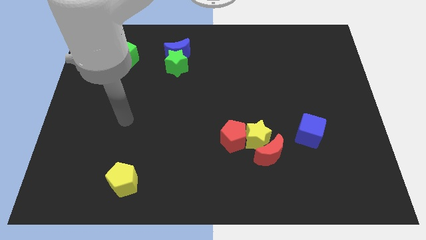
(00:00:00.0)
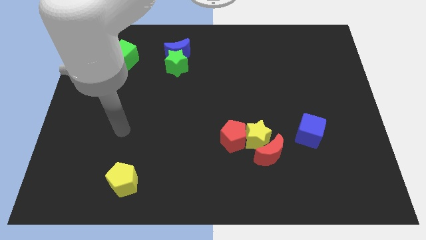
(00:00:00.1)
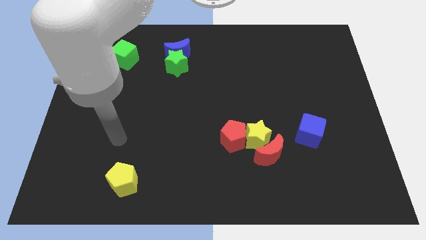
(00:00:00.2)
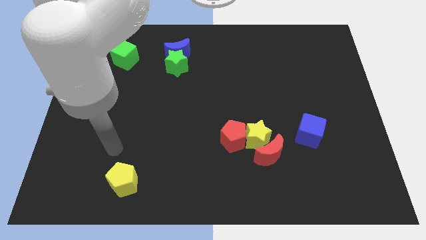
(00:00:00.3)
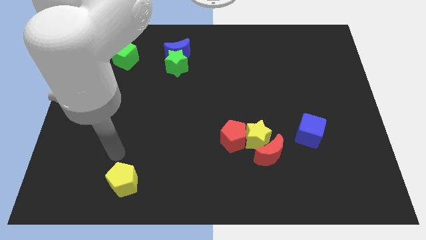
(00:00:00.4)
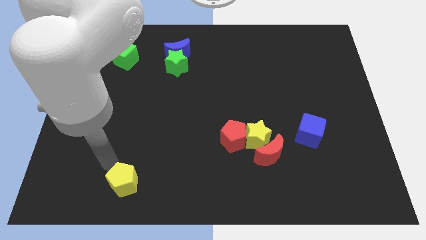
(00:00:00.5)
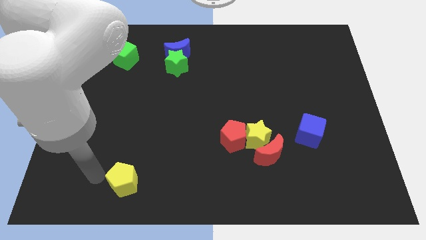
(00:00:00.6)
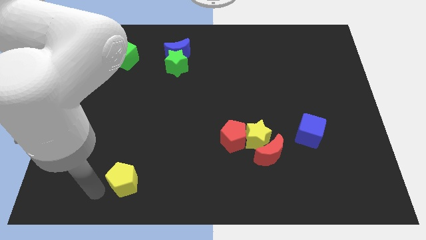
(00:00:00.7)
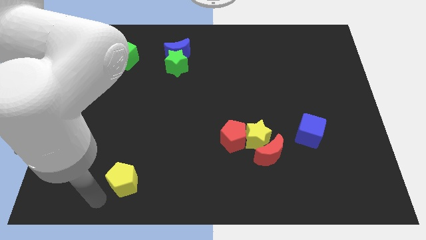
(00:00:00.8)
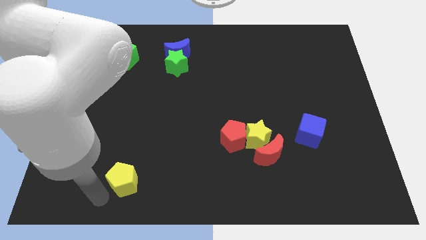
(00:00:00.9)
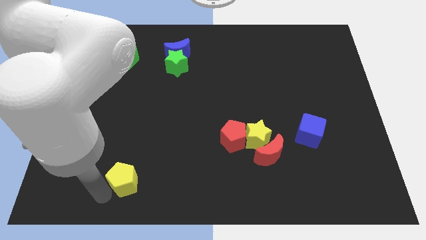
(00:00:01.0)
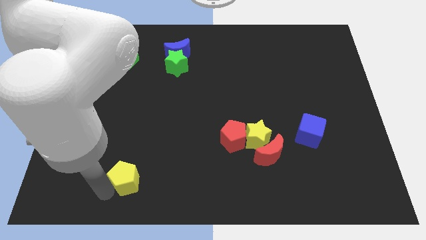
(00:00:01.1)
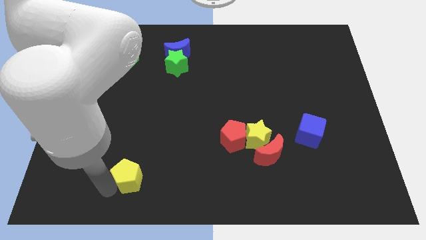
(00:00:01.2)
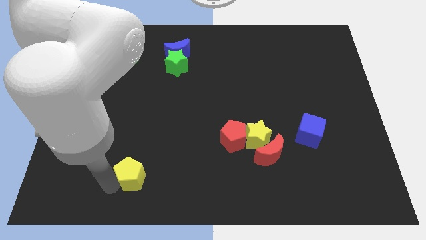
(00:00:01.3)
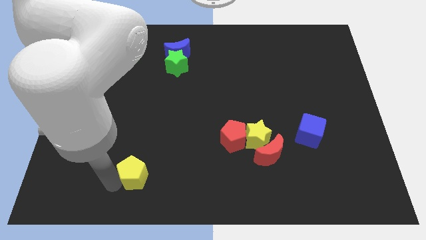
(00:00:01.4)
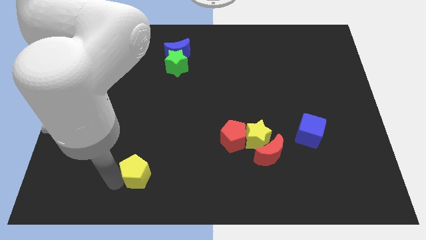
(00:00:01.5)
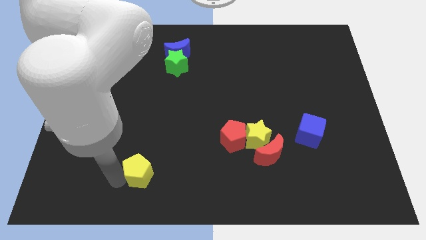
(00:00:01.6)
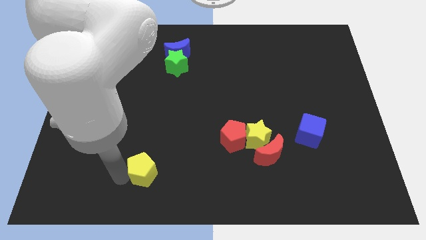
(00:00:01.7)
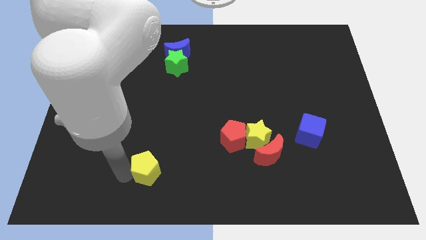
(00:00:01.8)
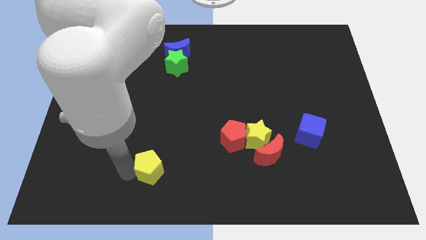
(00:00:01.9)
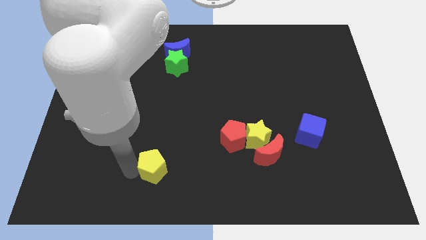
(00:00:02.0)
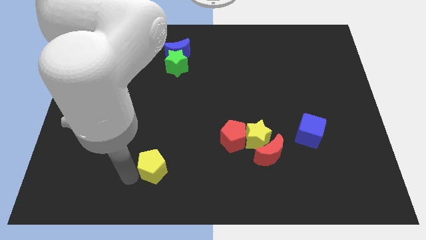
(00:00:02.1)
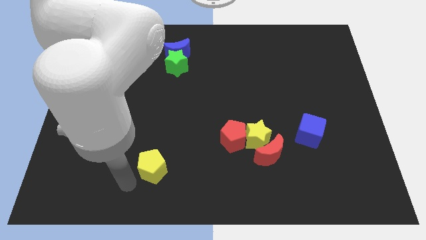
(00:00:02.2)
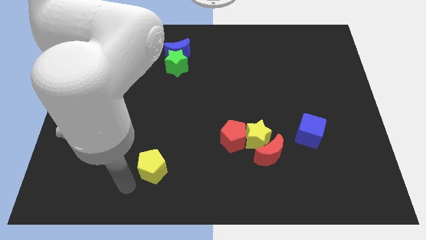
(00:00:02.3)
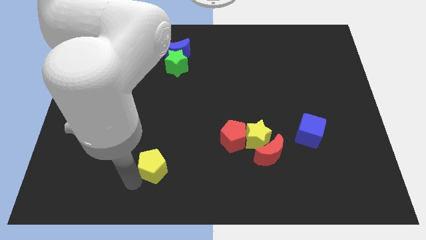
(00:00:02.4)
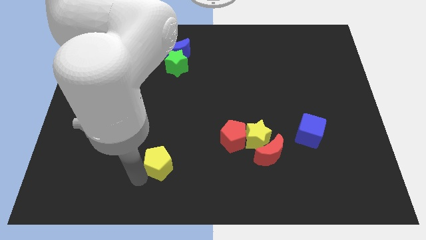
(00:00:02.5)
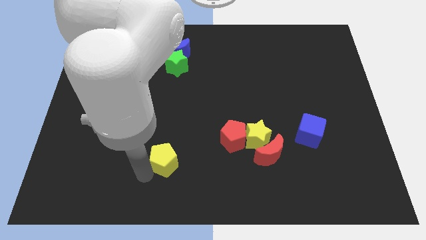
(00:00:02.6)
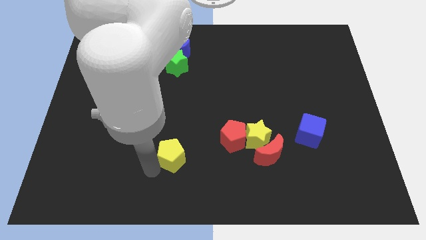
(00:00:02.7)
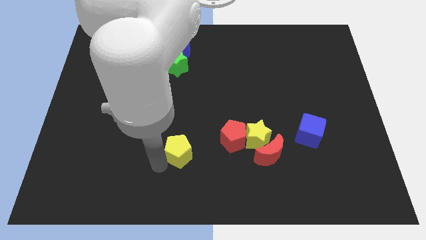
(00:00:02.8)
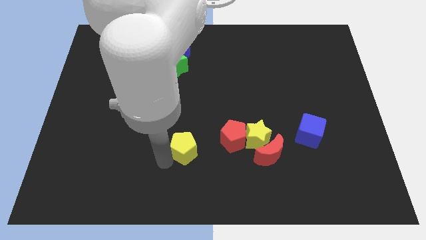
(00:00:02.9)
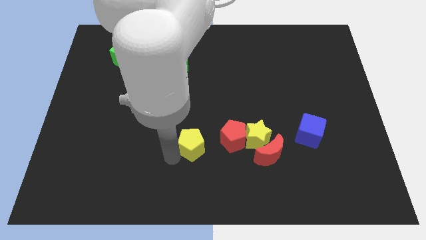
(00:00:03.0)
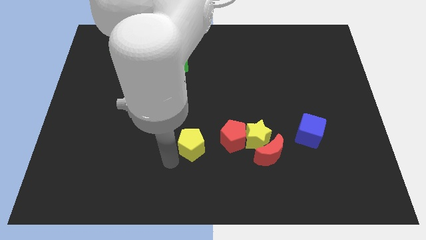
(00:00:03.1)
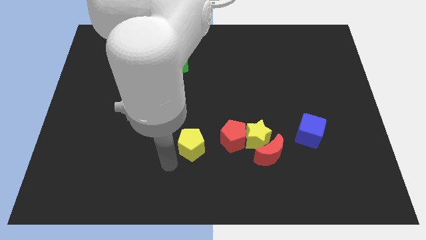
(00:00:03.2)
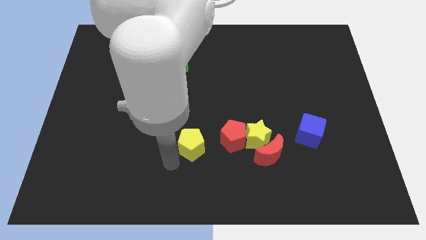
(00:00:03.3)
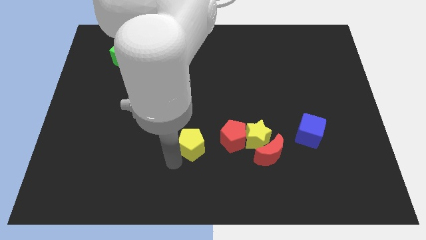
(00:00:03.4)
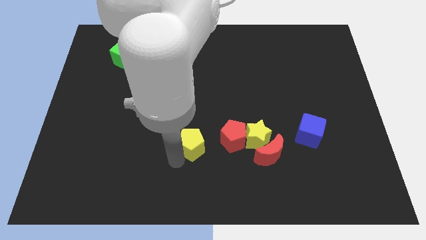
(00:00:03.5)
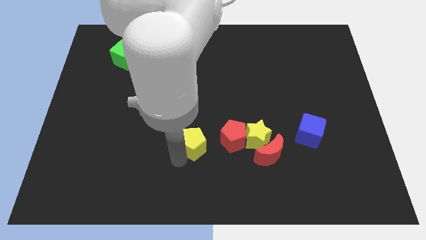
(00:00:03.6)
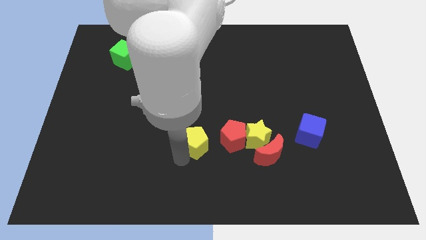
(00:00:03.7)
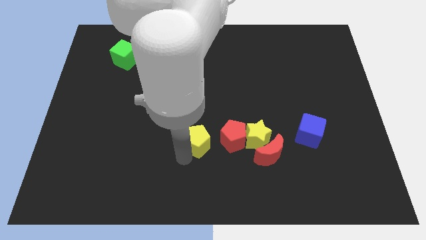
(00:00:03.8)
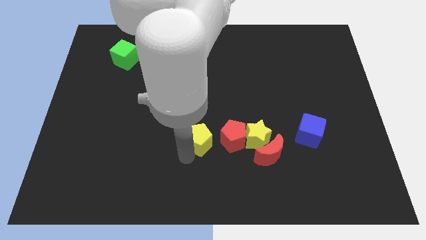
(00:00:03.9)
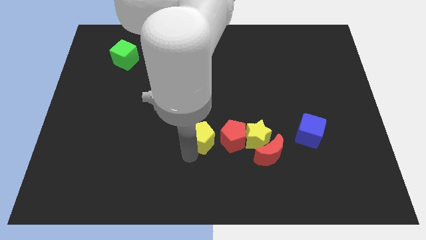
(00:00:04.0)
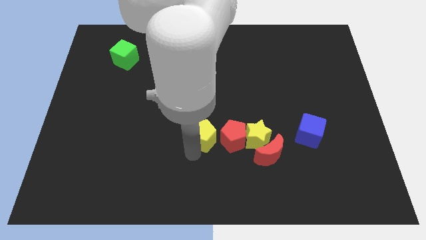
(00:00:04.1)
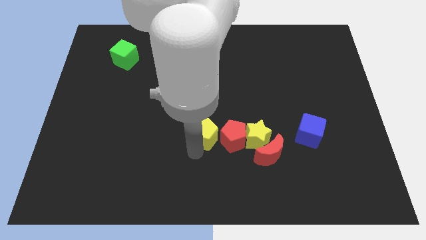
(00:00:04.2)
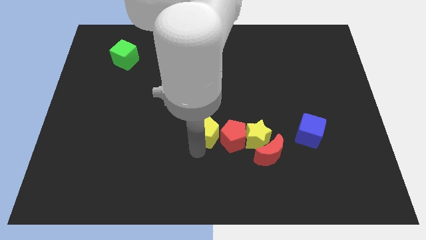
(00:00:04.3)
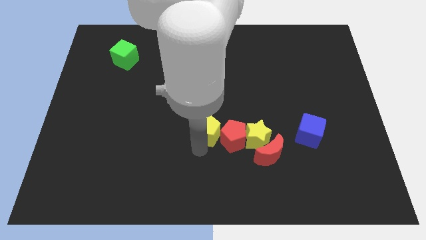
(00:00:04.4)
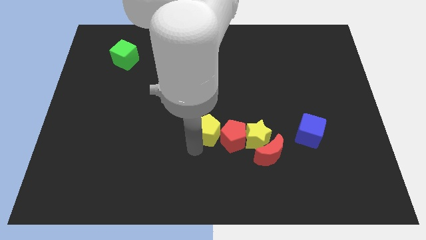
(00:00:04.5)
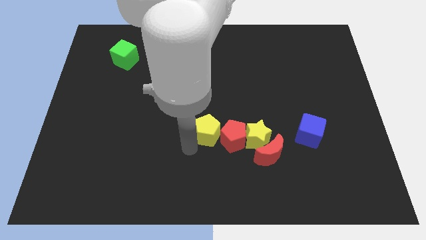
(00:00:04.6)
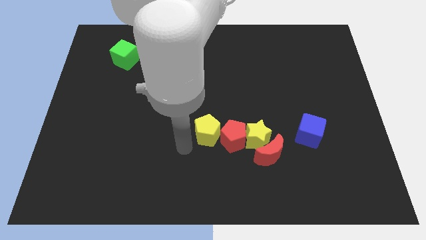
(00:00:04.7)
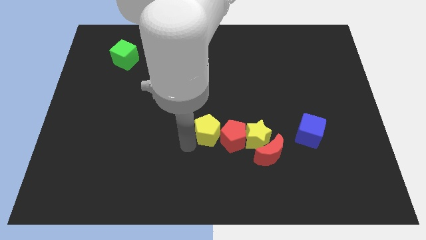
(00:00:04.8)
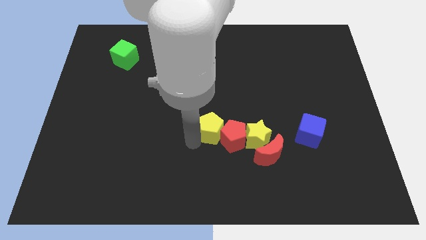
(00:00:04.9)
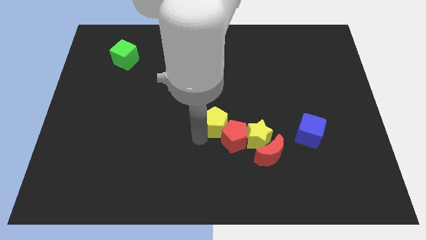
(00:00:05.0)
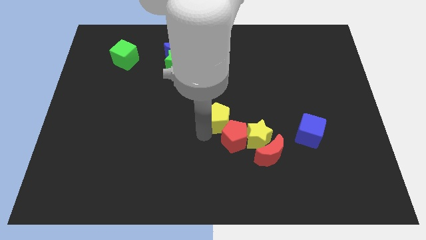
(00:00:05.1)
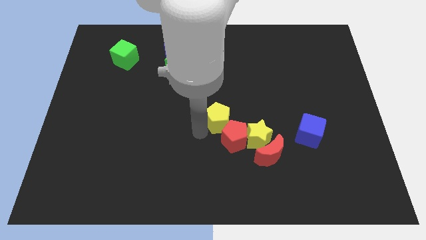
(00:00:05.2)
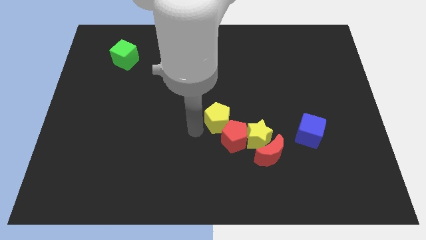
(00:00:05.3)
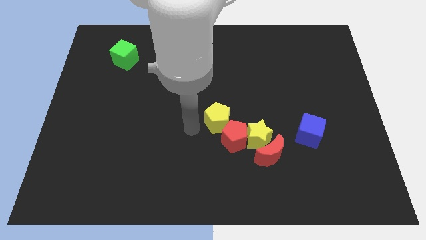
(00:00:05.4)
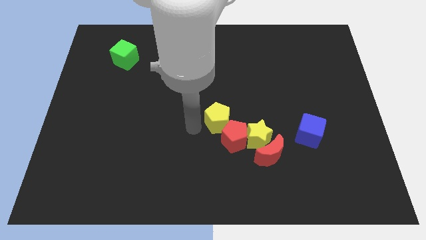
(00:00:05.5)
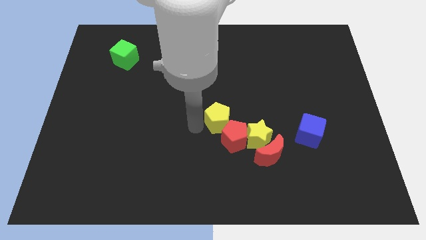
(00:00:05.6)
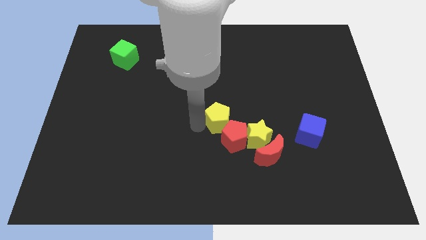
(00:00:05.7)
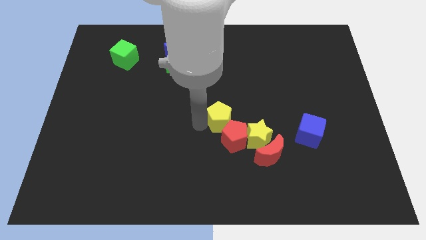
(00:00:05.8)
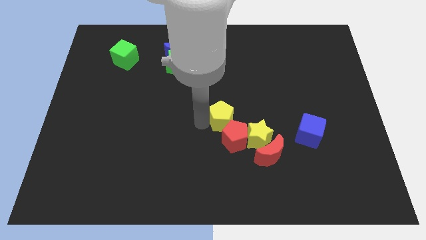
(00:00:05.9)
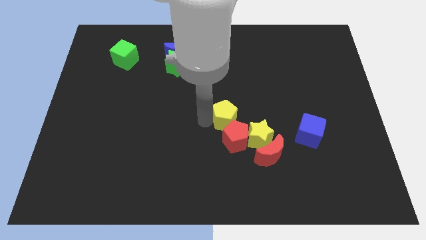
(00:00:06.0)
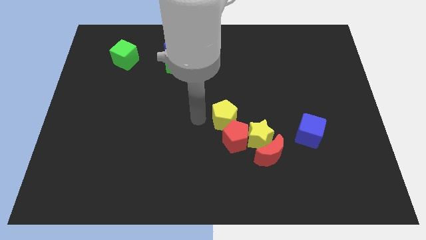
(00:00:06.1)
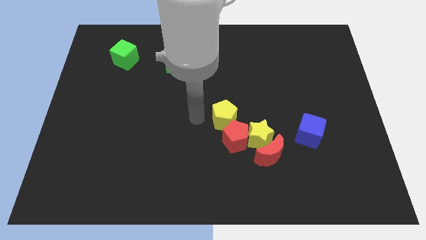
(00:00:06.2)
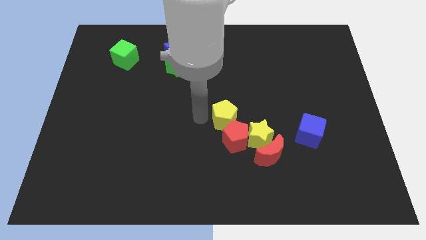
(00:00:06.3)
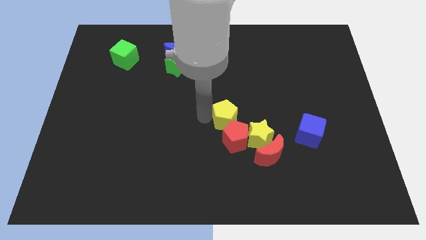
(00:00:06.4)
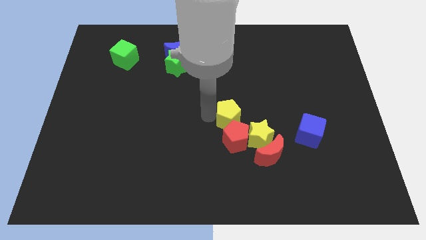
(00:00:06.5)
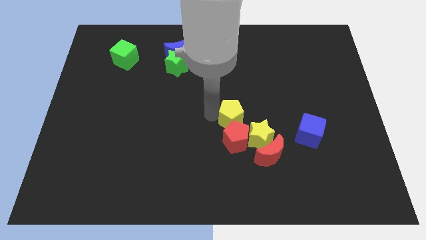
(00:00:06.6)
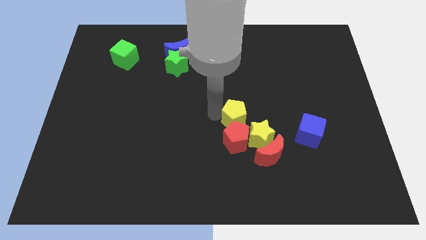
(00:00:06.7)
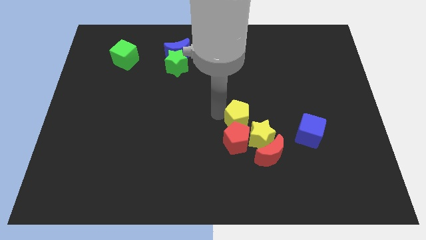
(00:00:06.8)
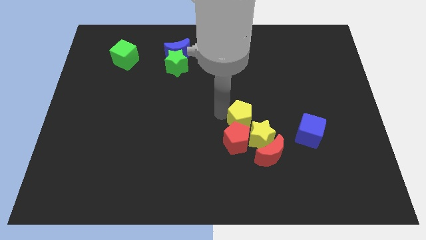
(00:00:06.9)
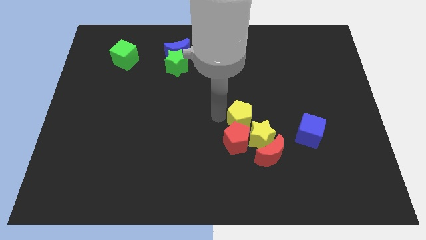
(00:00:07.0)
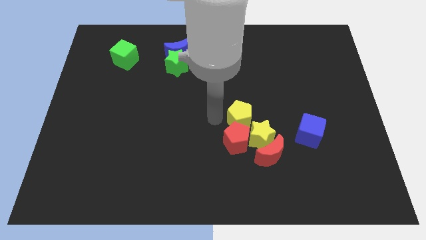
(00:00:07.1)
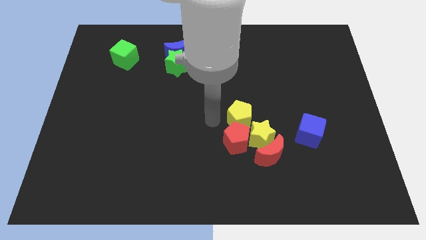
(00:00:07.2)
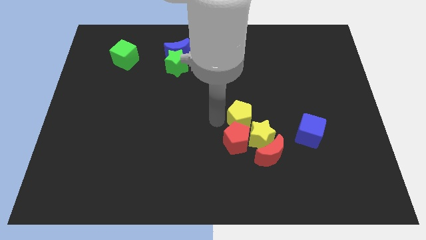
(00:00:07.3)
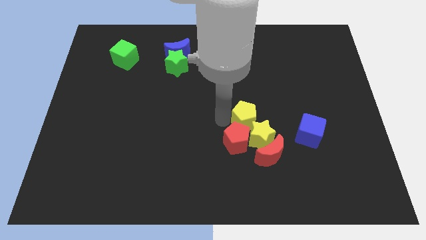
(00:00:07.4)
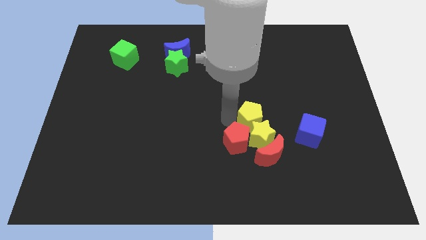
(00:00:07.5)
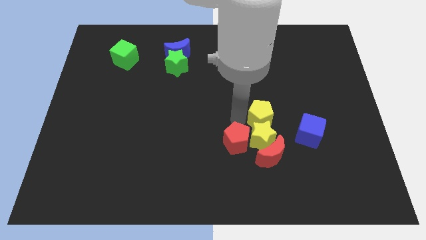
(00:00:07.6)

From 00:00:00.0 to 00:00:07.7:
put the yellow pentagon diagonally up and to the left of the blue cube

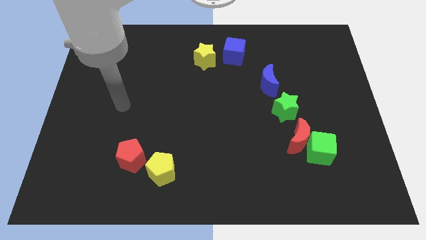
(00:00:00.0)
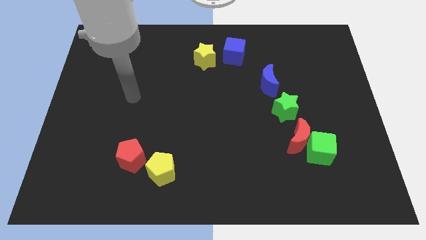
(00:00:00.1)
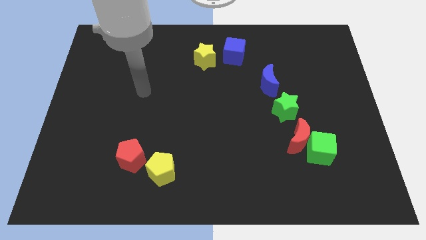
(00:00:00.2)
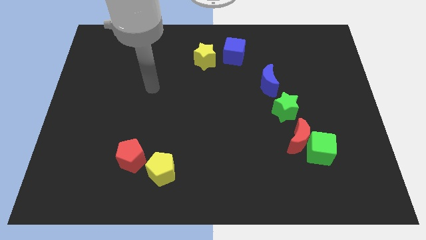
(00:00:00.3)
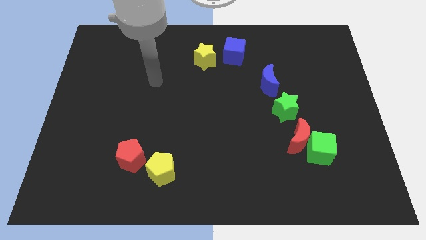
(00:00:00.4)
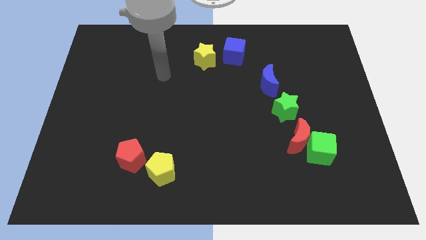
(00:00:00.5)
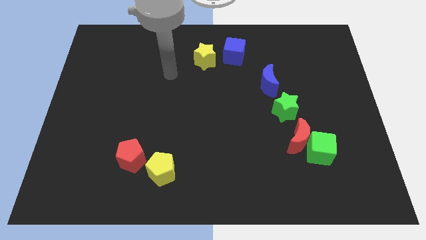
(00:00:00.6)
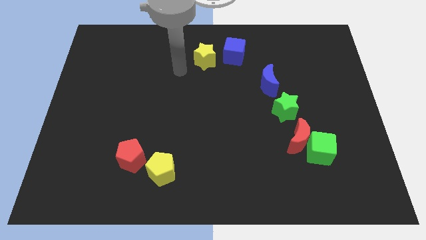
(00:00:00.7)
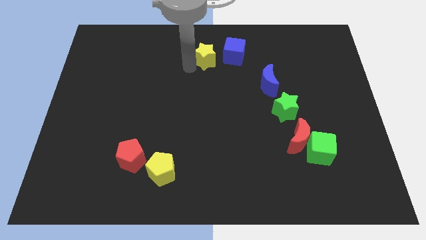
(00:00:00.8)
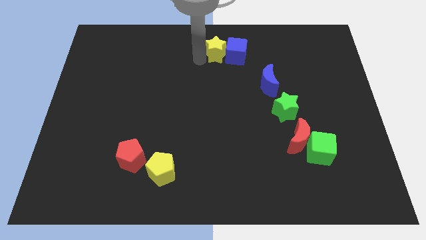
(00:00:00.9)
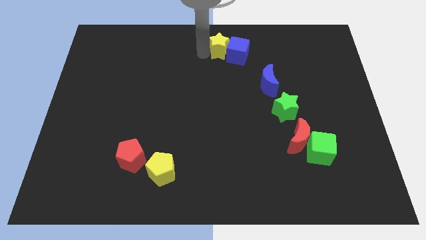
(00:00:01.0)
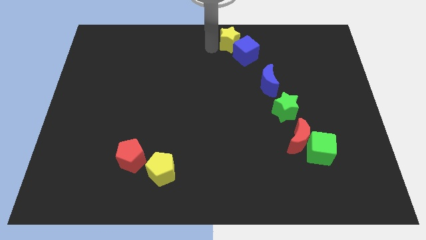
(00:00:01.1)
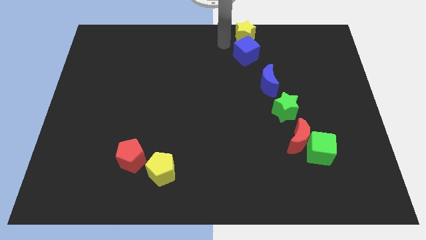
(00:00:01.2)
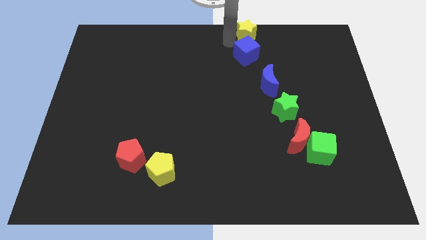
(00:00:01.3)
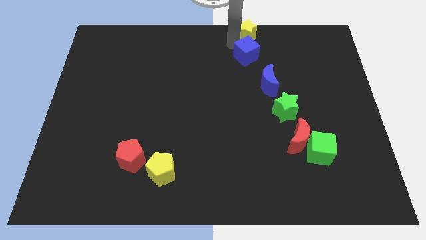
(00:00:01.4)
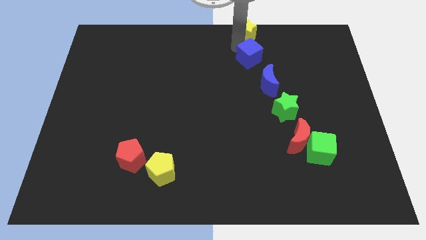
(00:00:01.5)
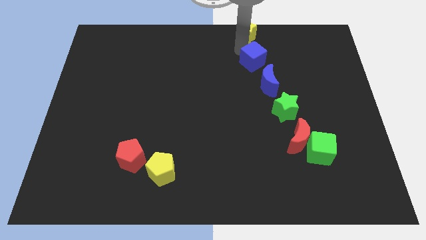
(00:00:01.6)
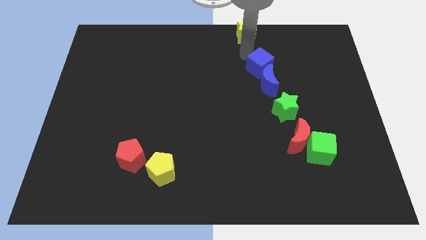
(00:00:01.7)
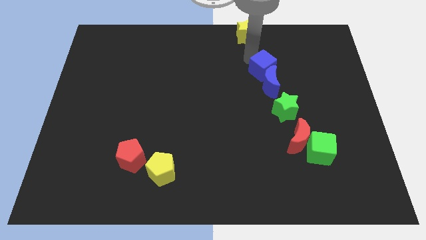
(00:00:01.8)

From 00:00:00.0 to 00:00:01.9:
put the blue cube to the top of the green star
